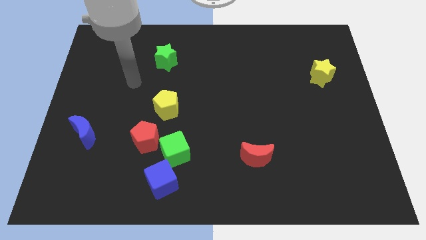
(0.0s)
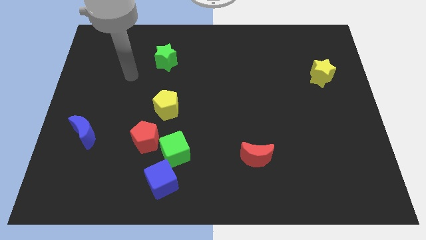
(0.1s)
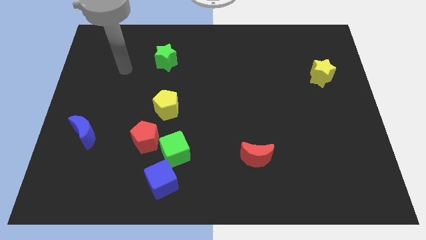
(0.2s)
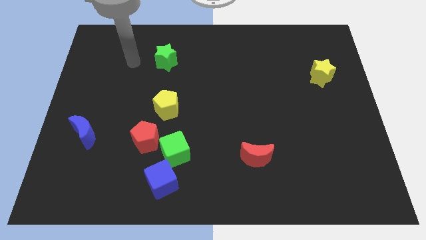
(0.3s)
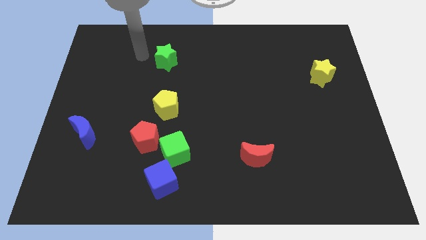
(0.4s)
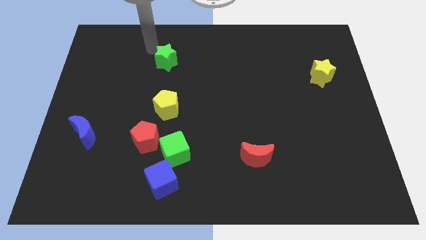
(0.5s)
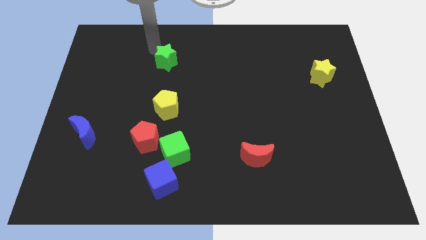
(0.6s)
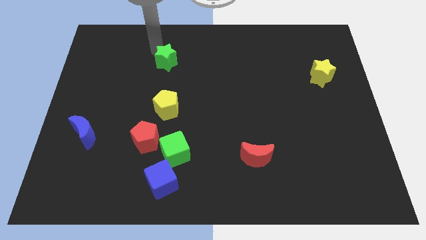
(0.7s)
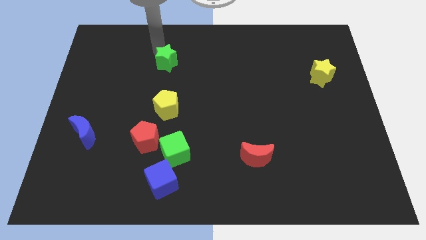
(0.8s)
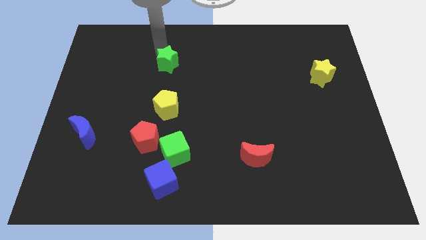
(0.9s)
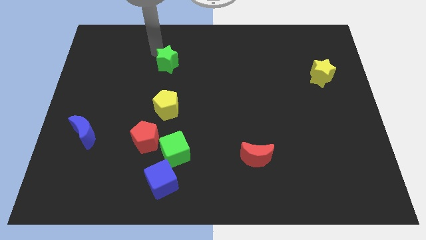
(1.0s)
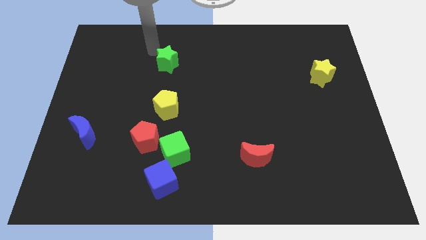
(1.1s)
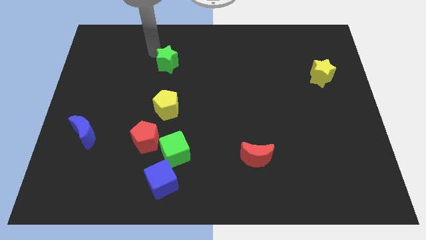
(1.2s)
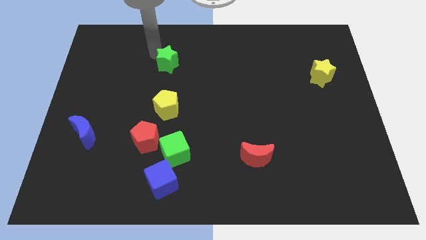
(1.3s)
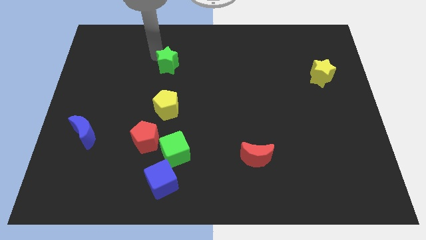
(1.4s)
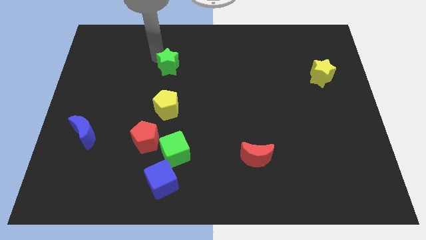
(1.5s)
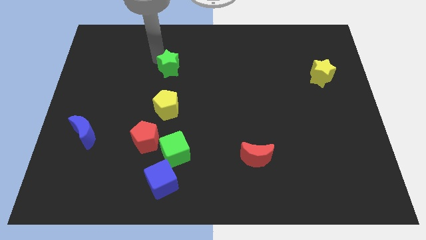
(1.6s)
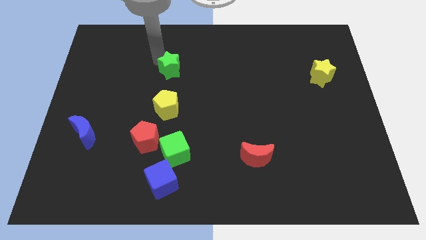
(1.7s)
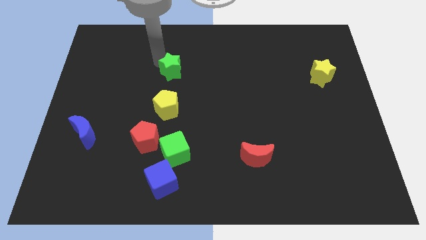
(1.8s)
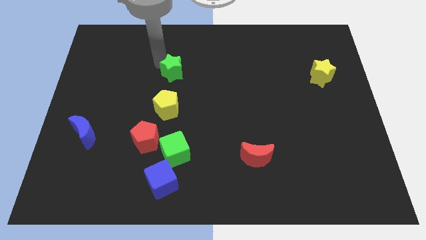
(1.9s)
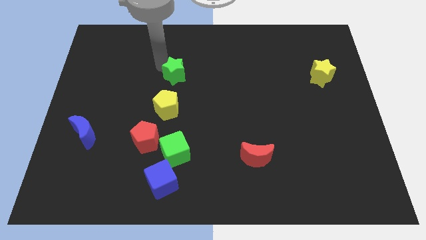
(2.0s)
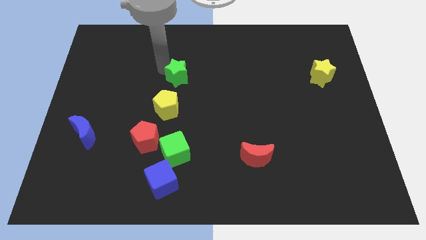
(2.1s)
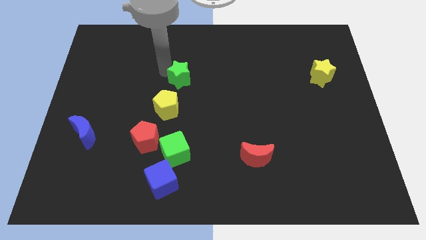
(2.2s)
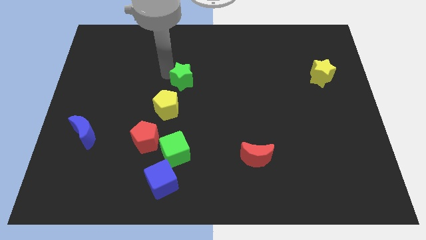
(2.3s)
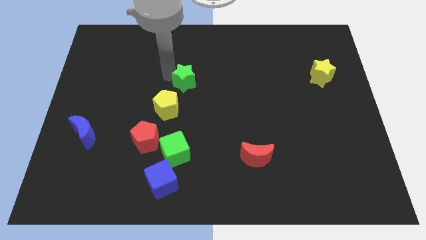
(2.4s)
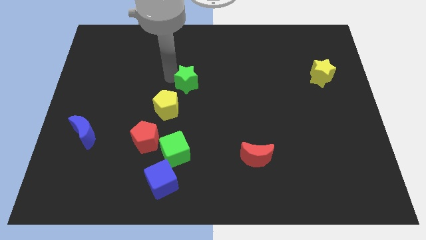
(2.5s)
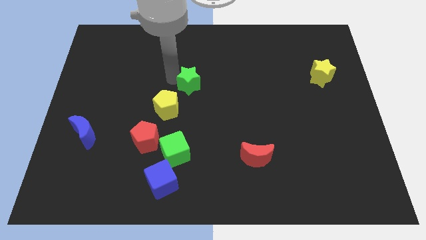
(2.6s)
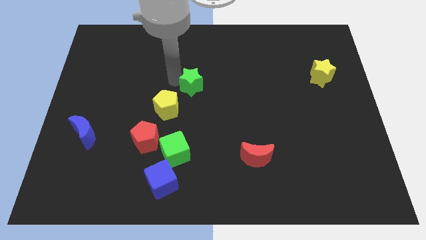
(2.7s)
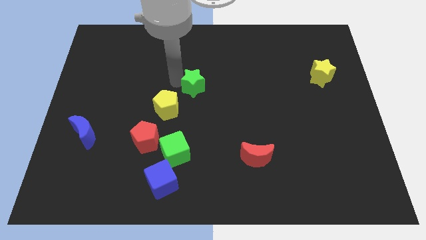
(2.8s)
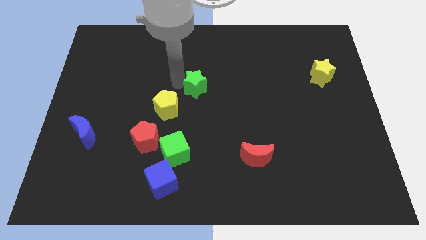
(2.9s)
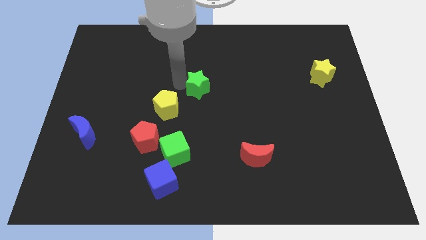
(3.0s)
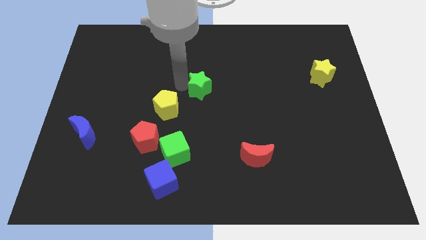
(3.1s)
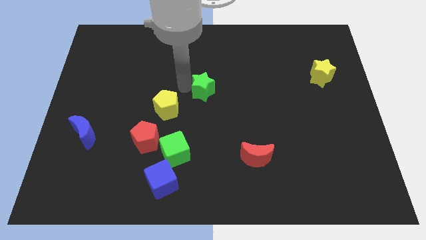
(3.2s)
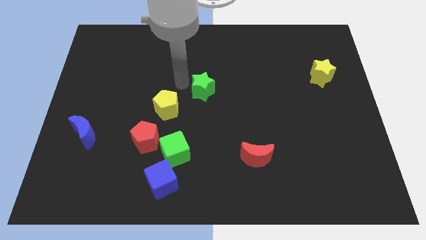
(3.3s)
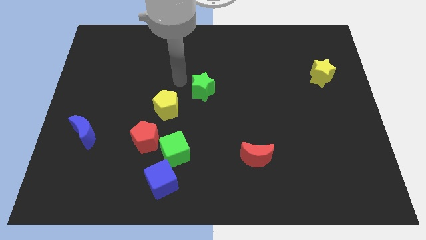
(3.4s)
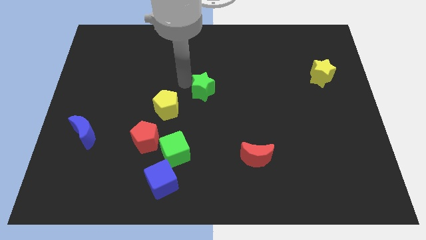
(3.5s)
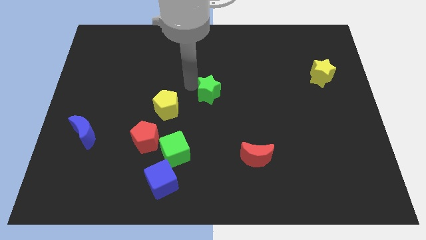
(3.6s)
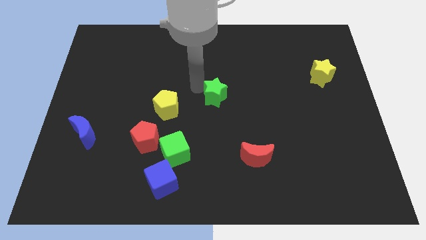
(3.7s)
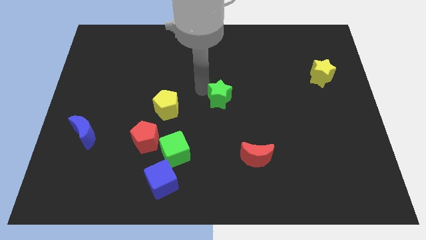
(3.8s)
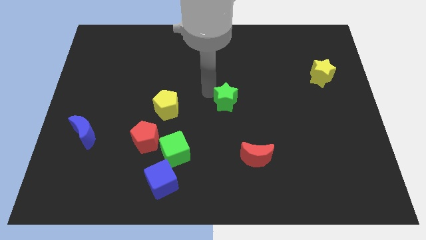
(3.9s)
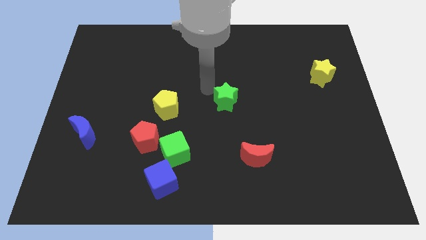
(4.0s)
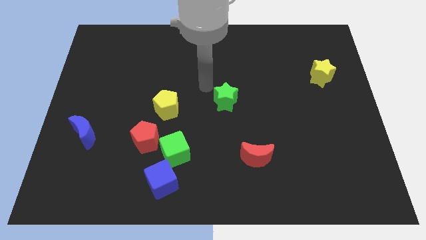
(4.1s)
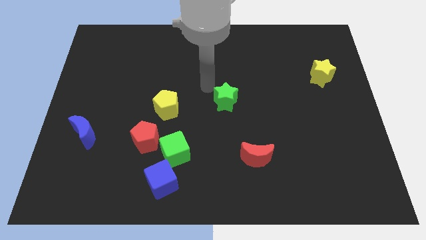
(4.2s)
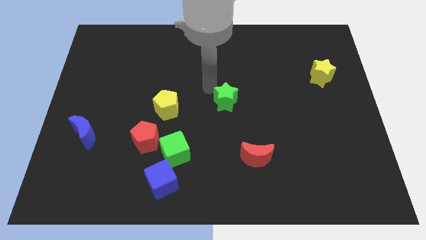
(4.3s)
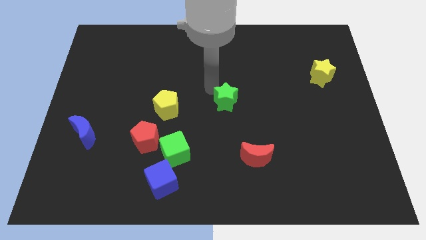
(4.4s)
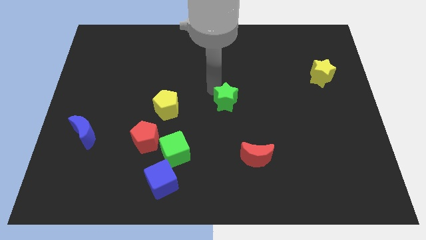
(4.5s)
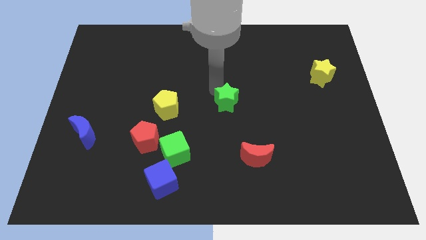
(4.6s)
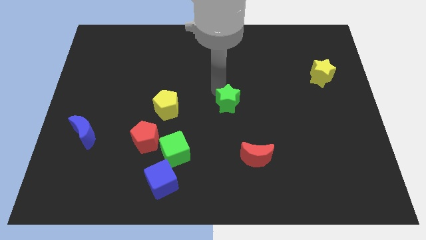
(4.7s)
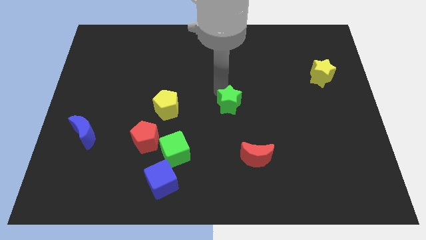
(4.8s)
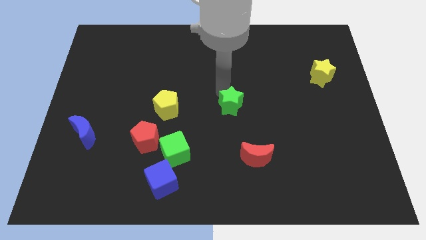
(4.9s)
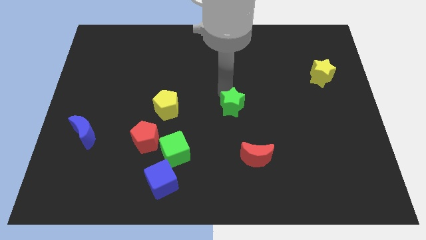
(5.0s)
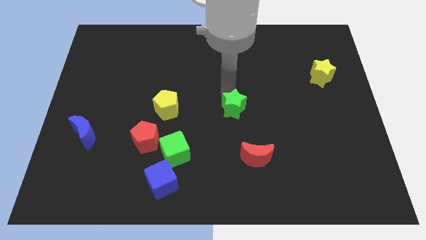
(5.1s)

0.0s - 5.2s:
put the green star above the red moon

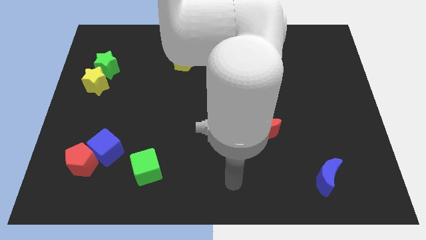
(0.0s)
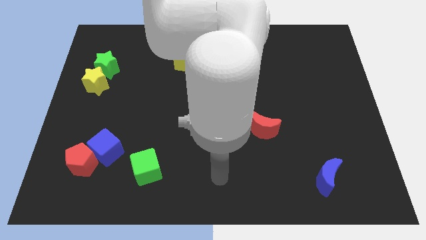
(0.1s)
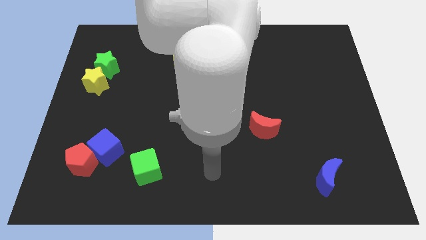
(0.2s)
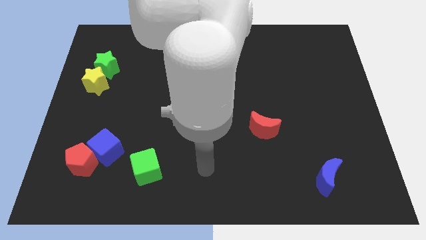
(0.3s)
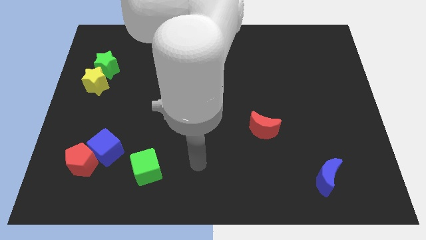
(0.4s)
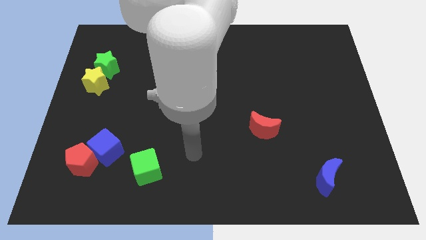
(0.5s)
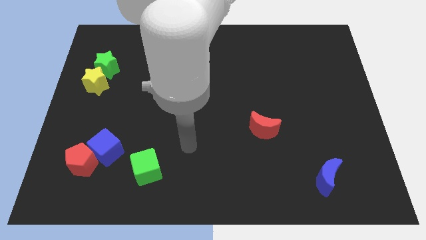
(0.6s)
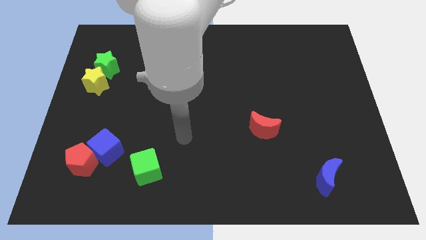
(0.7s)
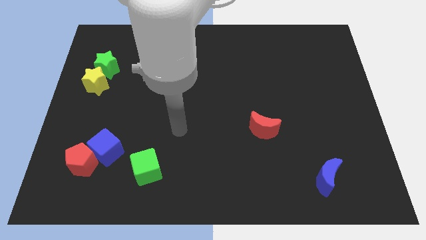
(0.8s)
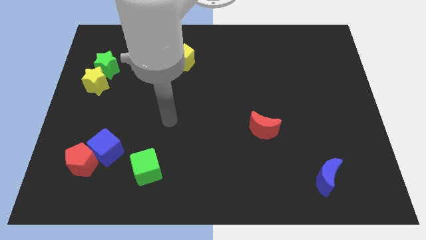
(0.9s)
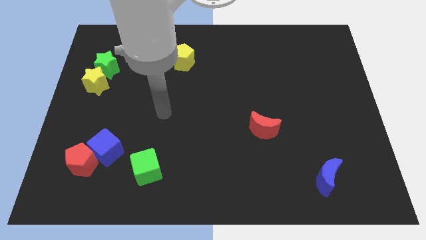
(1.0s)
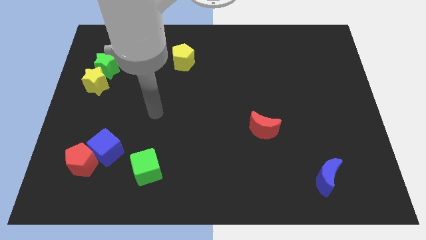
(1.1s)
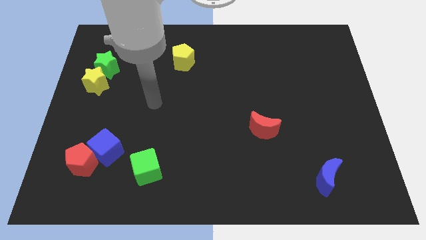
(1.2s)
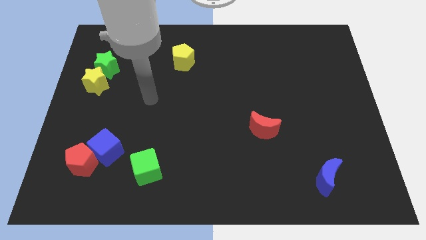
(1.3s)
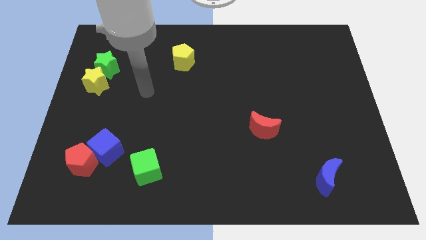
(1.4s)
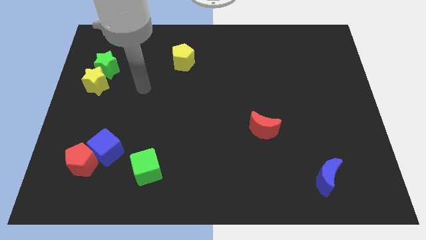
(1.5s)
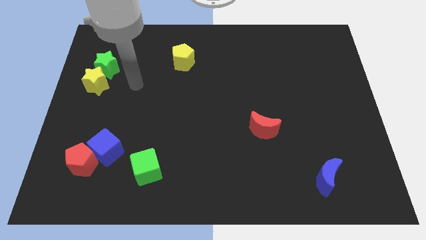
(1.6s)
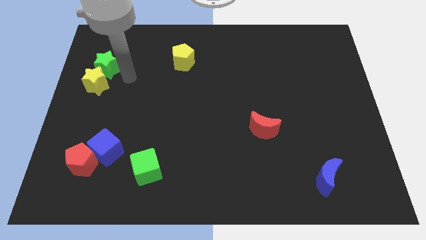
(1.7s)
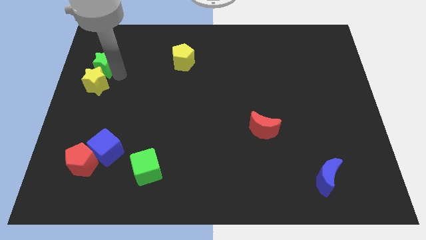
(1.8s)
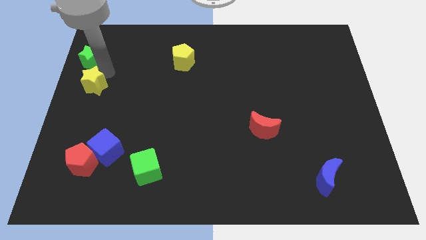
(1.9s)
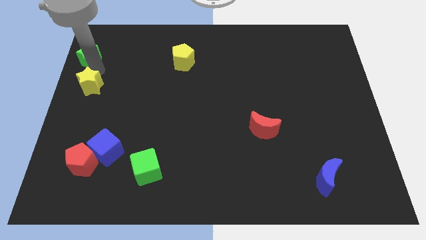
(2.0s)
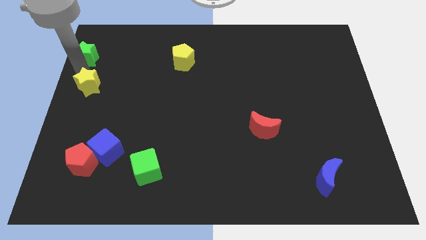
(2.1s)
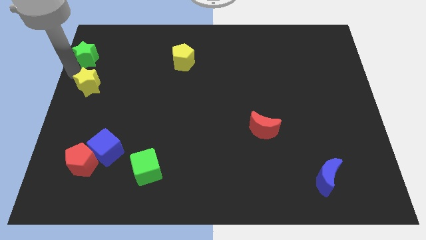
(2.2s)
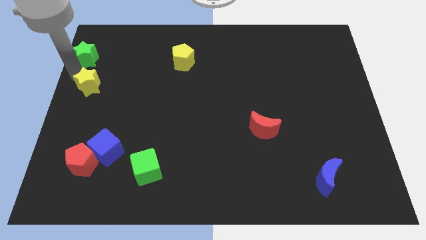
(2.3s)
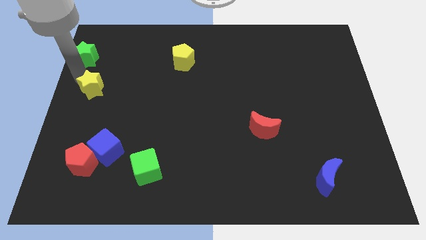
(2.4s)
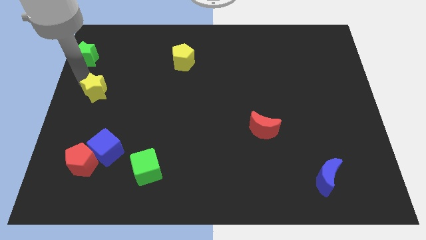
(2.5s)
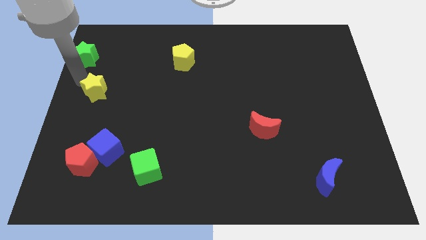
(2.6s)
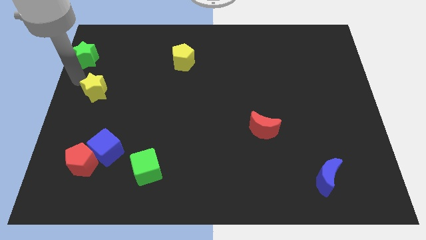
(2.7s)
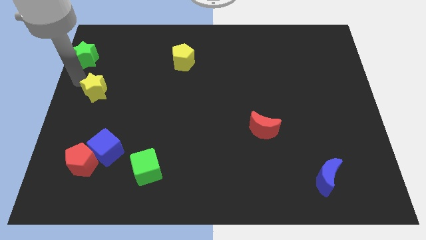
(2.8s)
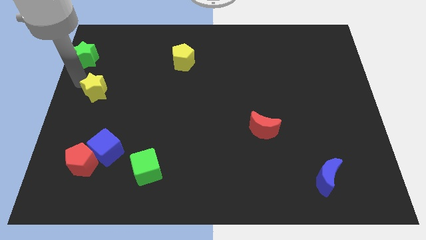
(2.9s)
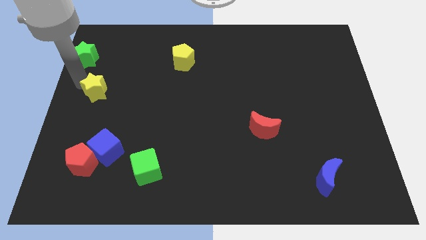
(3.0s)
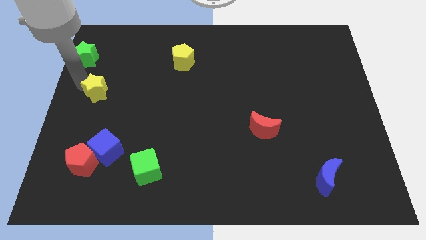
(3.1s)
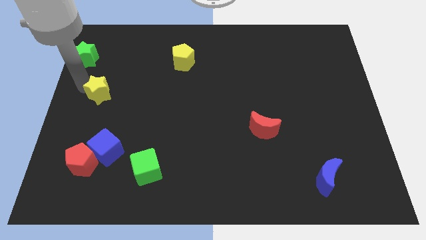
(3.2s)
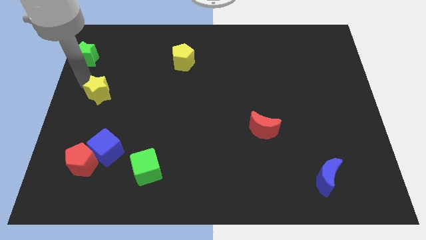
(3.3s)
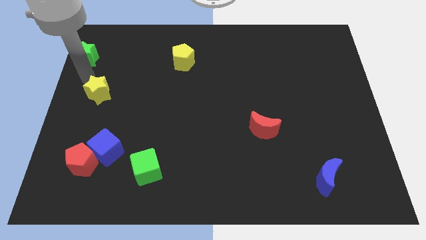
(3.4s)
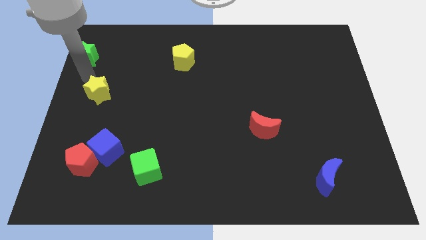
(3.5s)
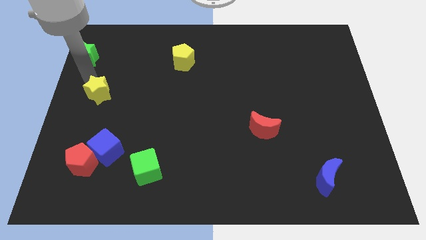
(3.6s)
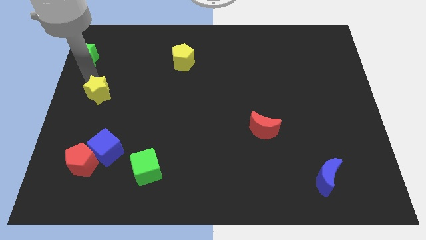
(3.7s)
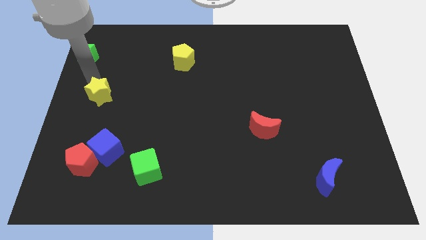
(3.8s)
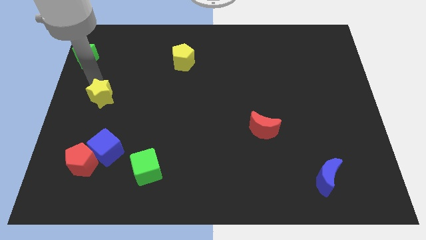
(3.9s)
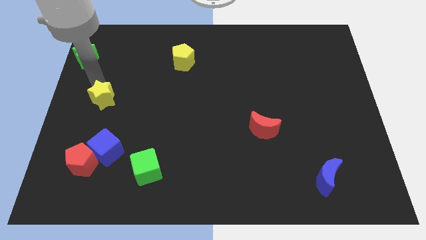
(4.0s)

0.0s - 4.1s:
slide the yellow star to the top side of the blue cube
